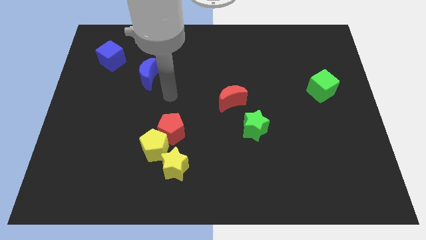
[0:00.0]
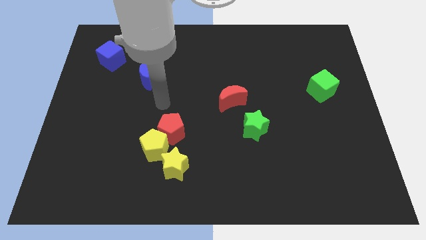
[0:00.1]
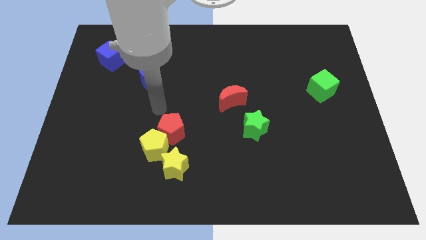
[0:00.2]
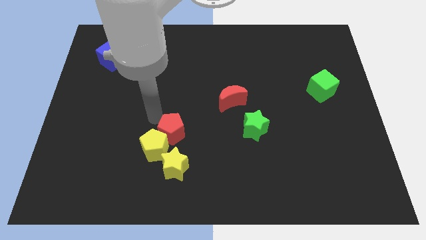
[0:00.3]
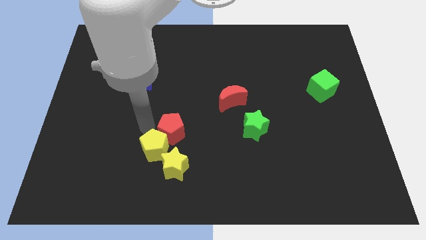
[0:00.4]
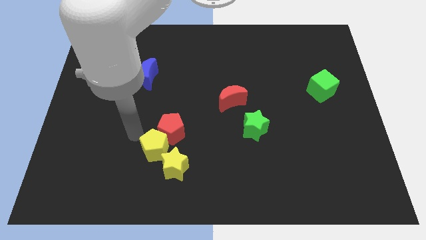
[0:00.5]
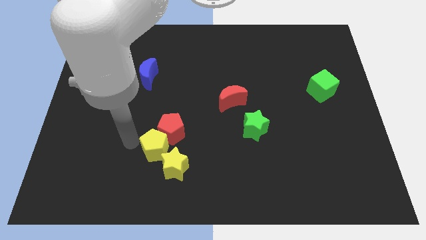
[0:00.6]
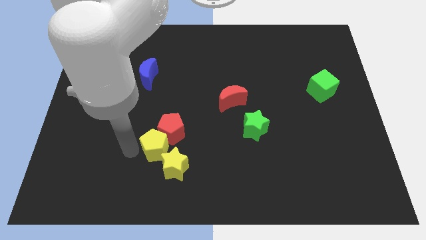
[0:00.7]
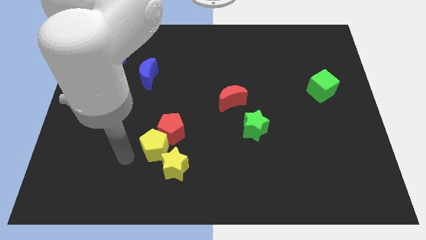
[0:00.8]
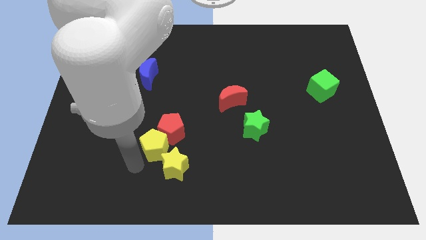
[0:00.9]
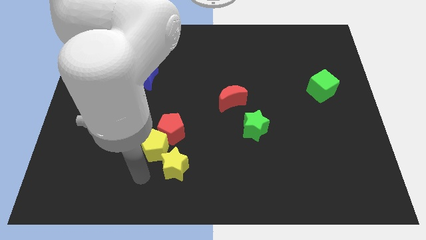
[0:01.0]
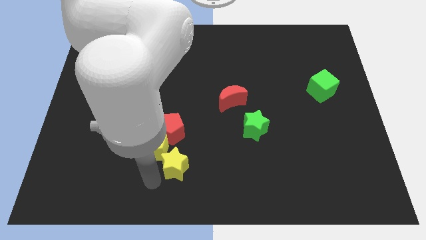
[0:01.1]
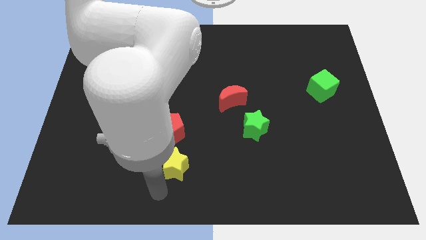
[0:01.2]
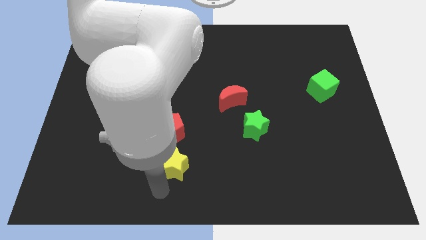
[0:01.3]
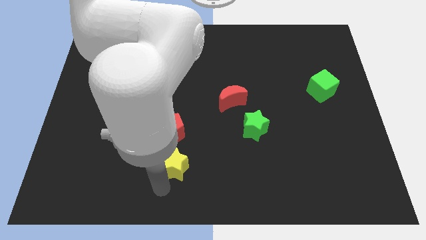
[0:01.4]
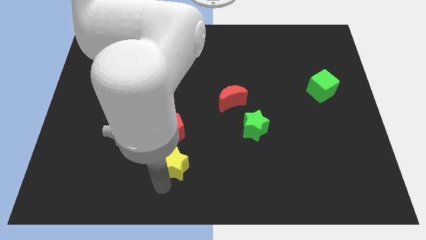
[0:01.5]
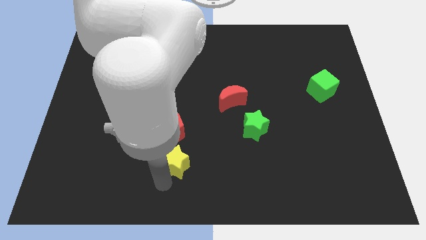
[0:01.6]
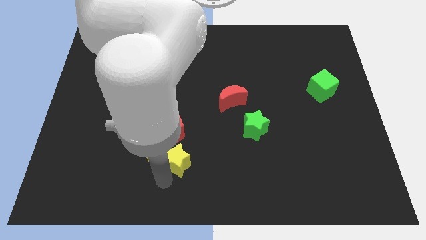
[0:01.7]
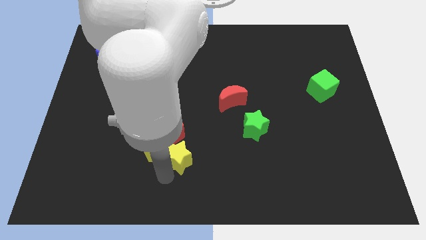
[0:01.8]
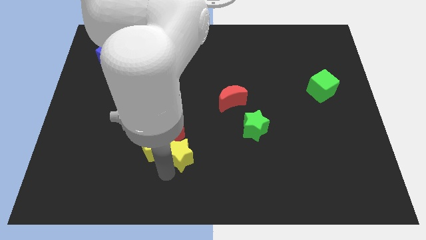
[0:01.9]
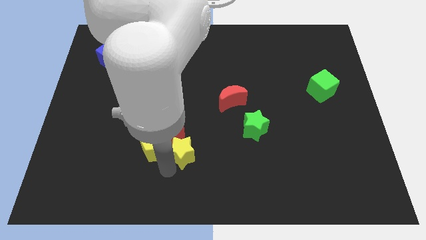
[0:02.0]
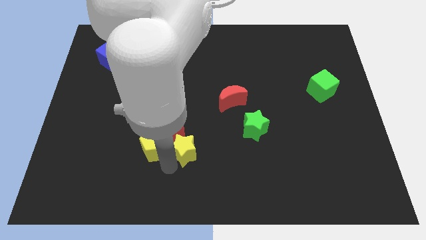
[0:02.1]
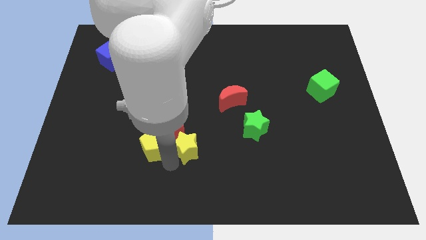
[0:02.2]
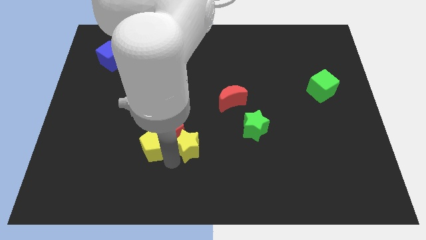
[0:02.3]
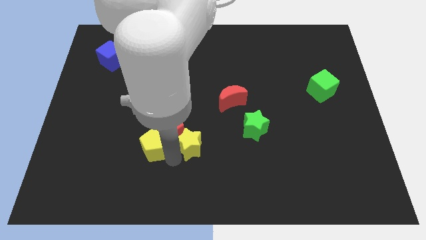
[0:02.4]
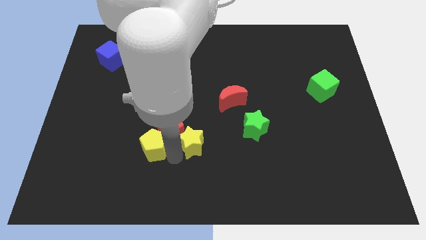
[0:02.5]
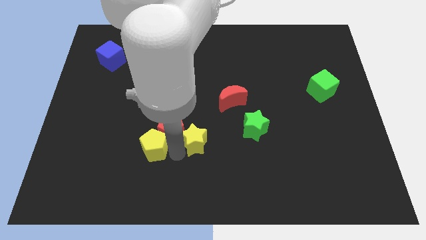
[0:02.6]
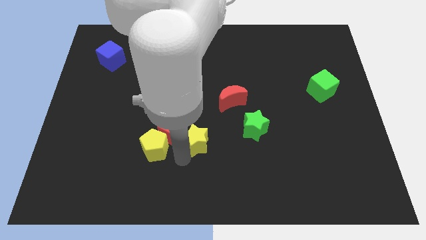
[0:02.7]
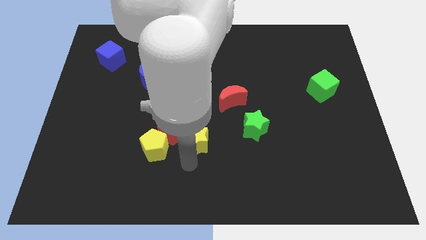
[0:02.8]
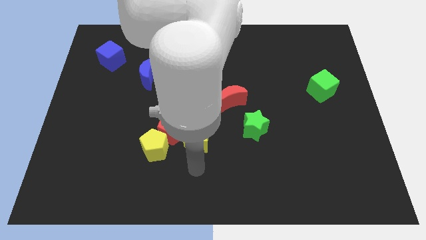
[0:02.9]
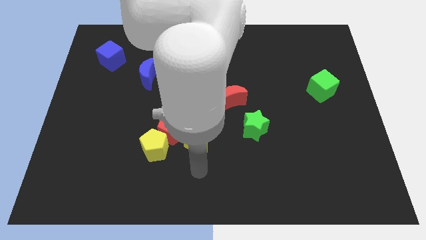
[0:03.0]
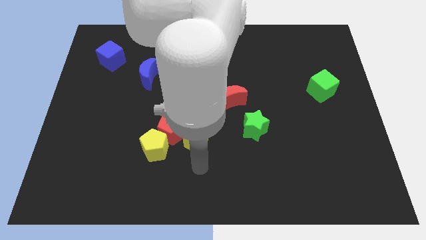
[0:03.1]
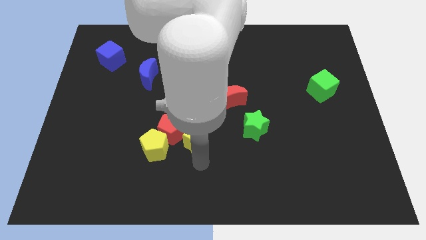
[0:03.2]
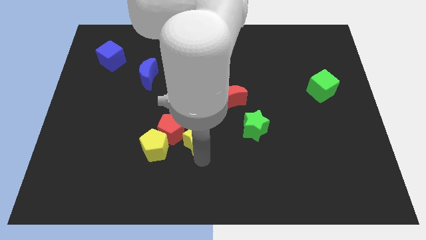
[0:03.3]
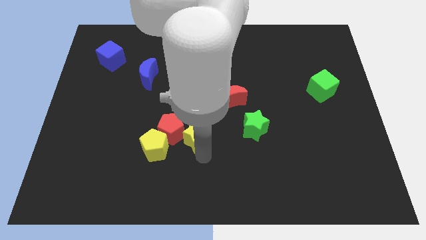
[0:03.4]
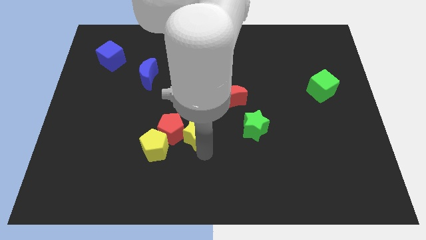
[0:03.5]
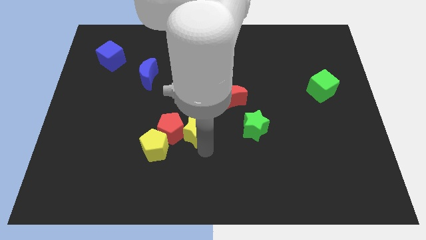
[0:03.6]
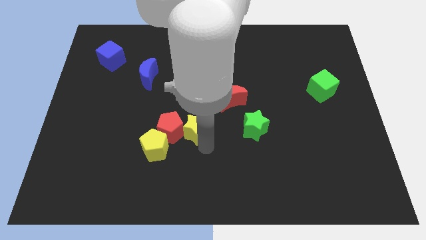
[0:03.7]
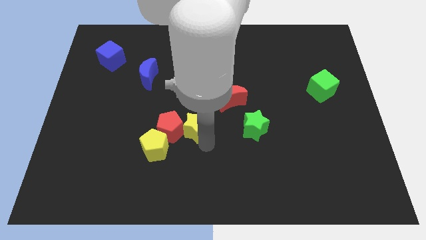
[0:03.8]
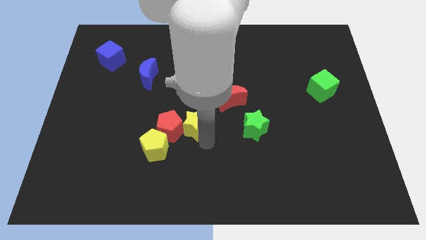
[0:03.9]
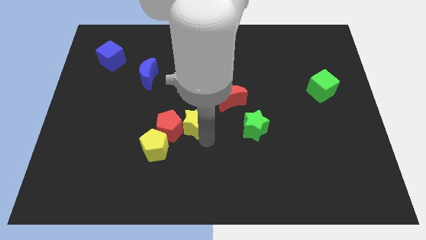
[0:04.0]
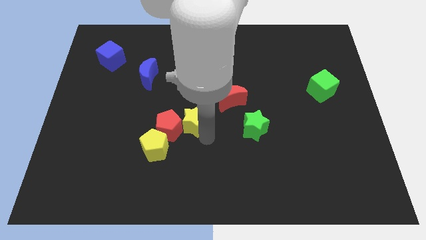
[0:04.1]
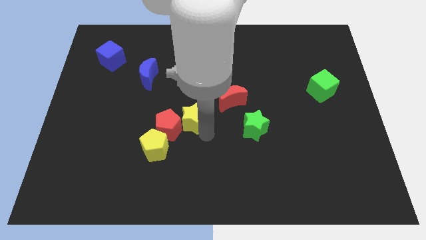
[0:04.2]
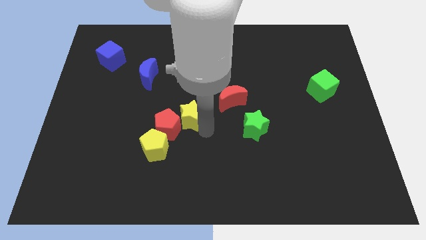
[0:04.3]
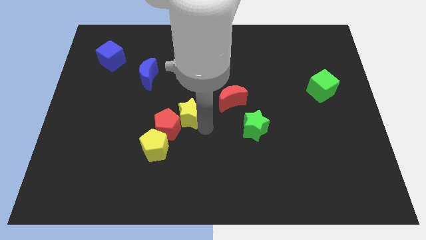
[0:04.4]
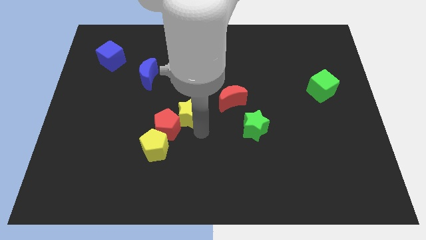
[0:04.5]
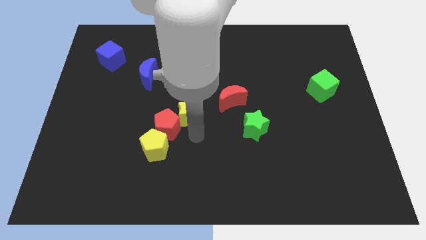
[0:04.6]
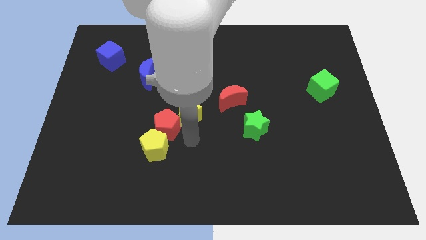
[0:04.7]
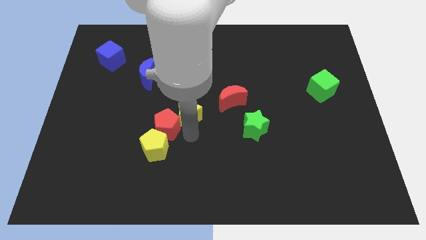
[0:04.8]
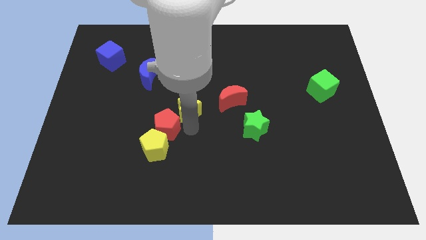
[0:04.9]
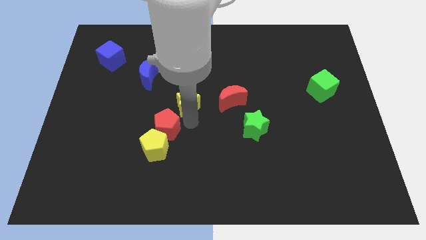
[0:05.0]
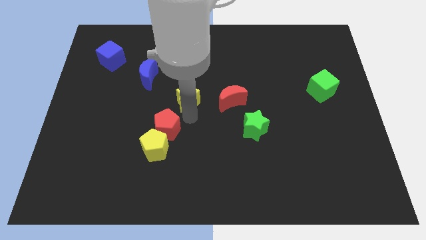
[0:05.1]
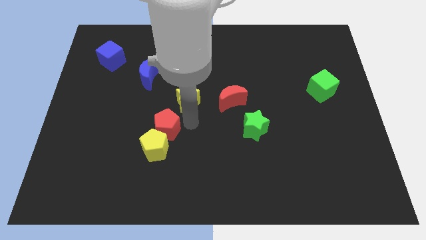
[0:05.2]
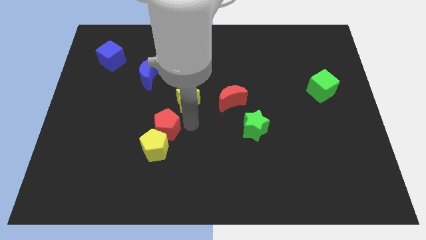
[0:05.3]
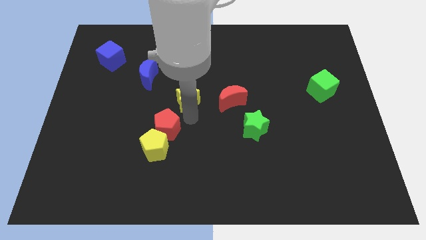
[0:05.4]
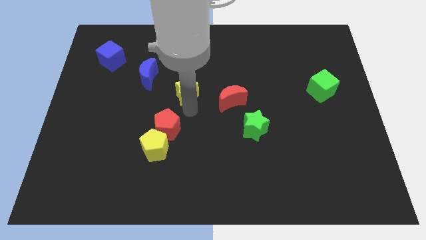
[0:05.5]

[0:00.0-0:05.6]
move the yellow star upwards

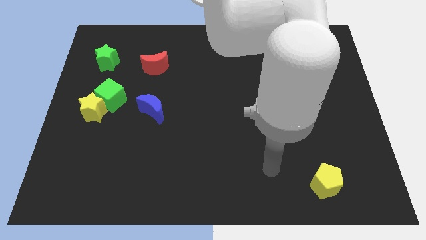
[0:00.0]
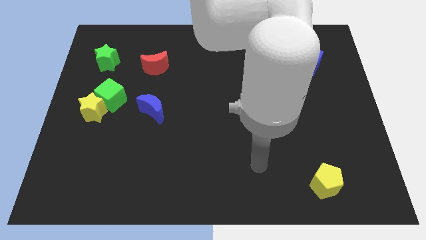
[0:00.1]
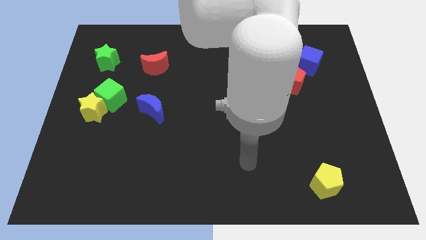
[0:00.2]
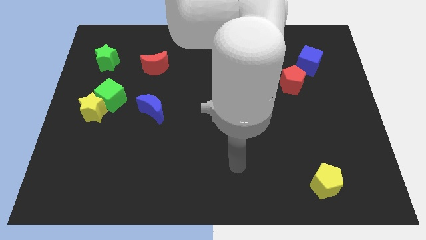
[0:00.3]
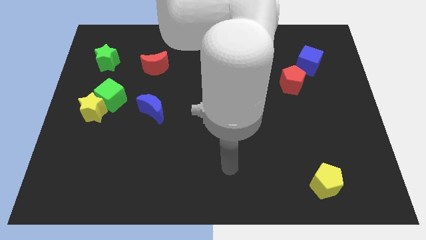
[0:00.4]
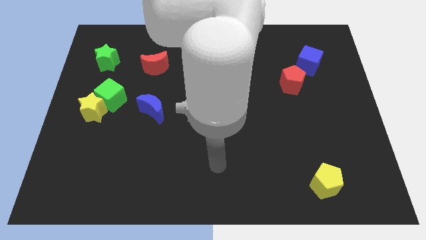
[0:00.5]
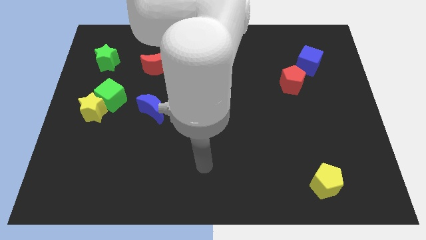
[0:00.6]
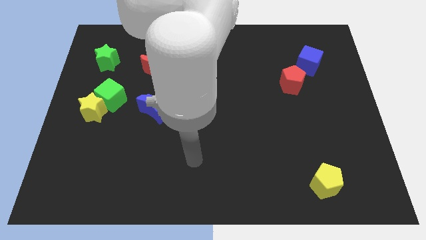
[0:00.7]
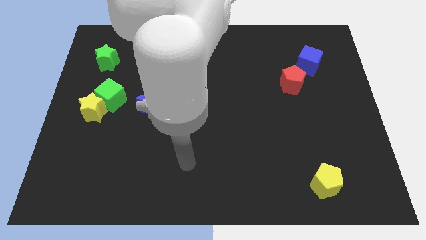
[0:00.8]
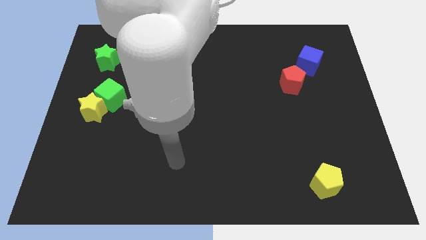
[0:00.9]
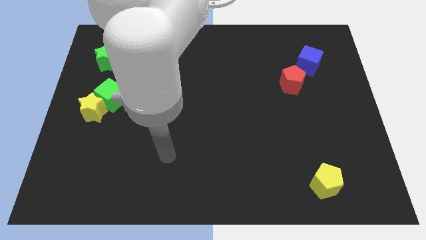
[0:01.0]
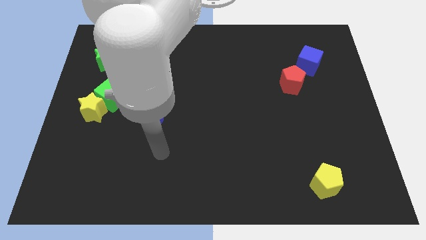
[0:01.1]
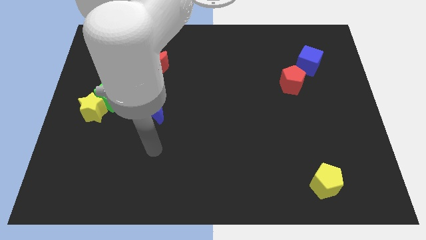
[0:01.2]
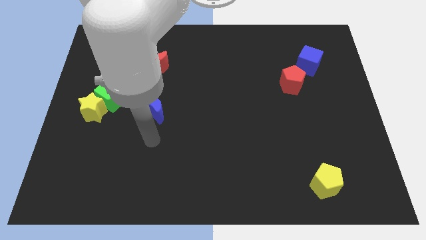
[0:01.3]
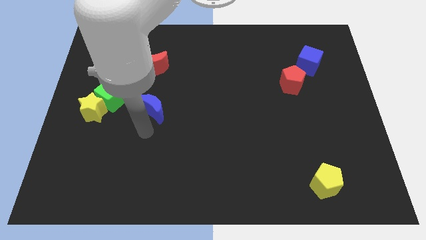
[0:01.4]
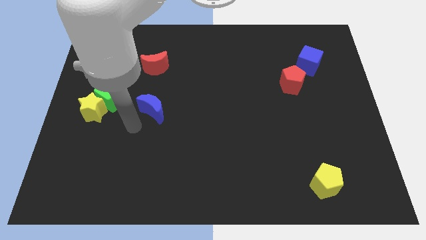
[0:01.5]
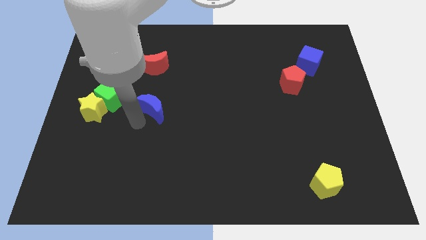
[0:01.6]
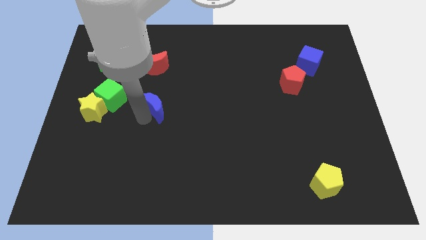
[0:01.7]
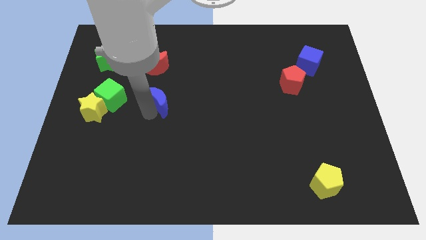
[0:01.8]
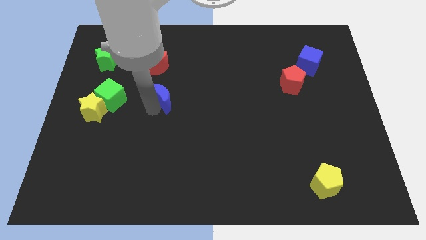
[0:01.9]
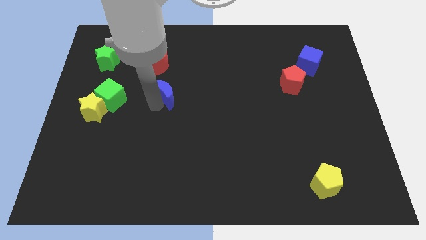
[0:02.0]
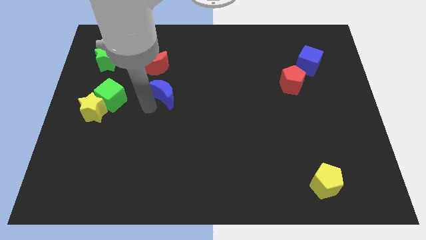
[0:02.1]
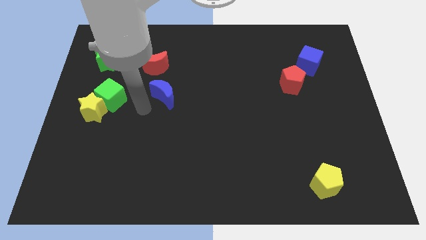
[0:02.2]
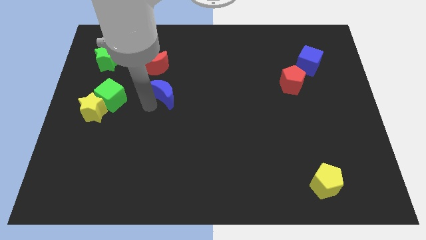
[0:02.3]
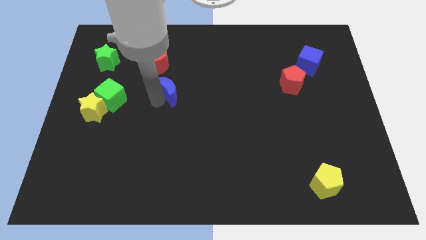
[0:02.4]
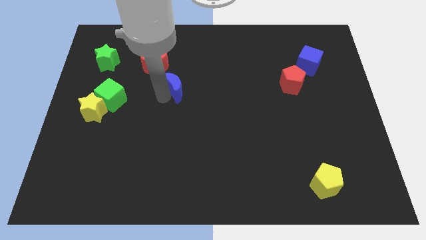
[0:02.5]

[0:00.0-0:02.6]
slide the blue moon a bit upwards and to the right diagonally

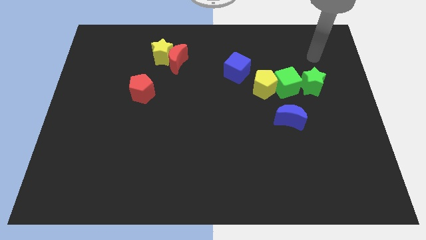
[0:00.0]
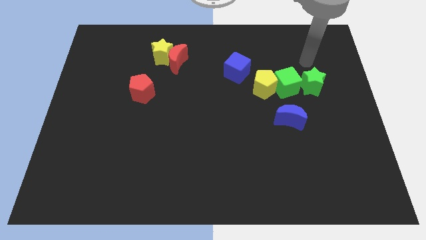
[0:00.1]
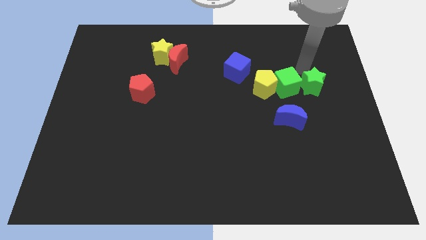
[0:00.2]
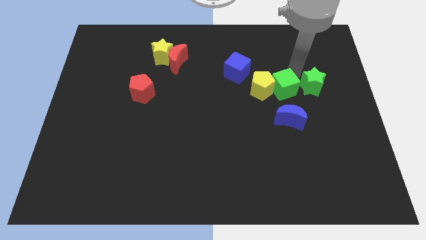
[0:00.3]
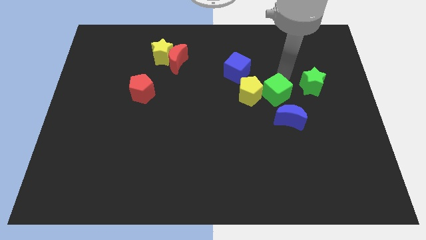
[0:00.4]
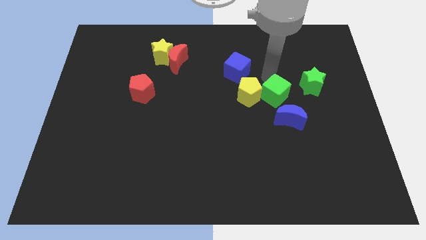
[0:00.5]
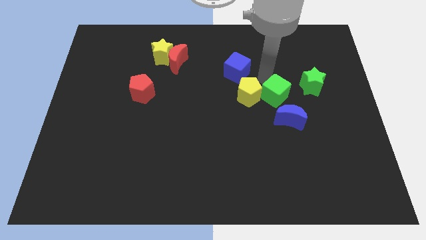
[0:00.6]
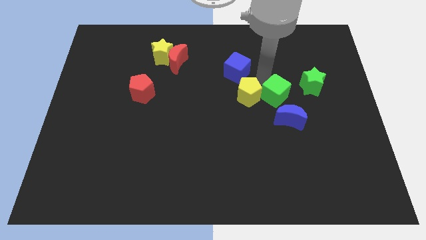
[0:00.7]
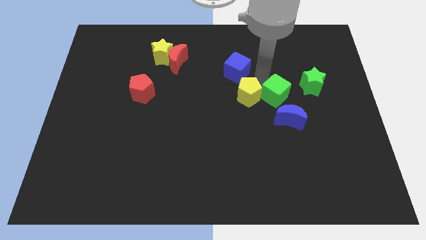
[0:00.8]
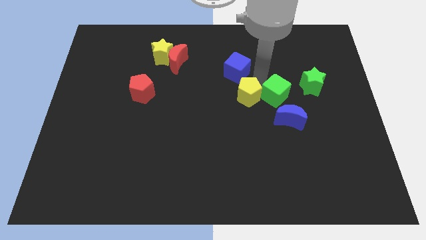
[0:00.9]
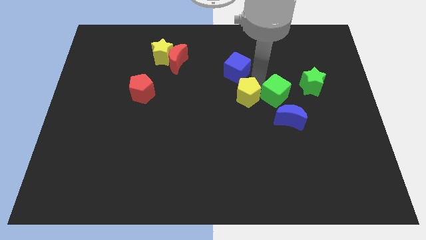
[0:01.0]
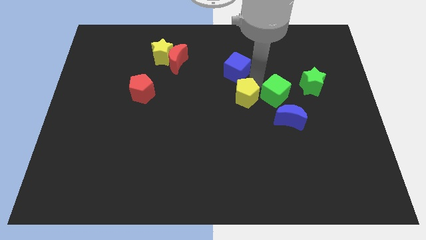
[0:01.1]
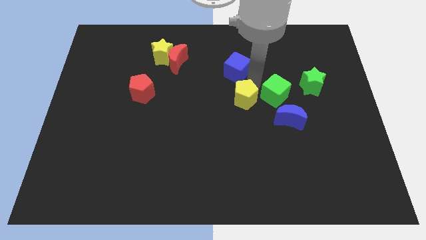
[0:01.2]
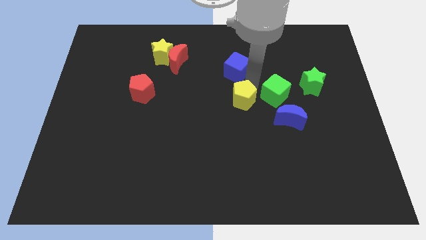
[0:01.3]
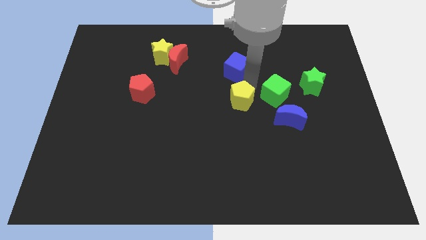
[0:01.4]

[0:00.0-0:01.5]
slide the yellow pentagon a little bit down and then to the left
